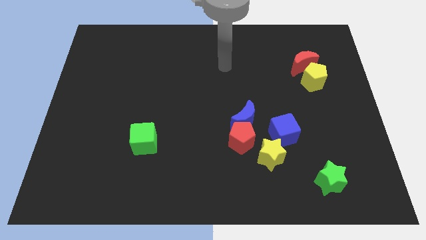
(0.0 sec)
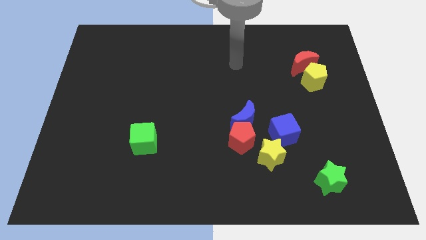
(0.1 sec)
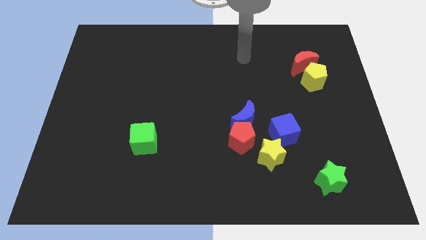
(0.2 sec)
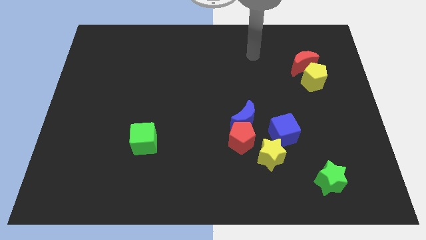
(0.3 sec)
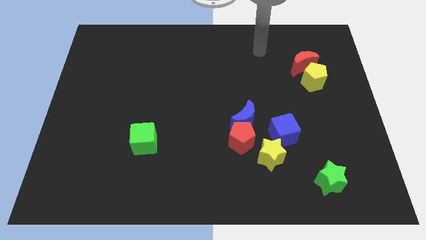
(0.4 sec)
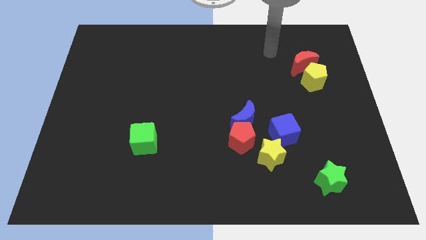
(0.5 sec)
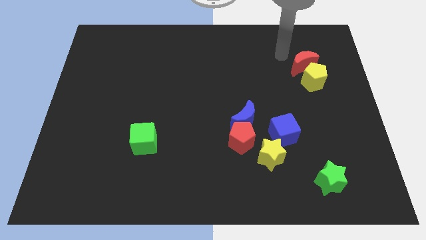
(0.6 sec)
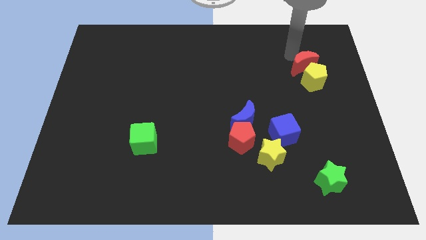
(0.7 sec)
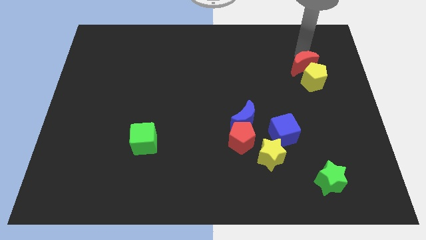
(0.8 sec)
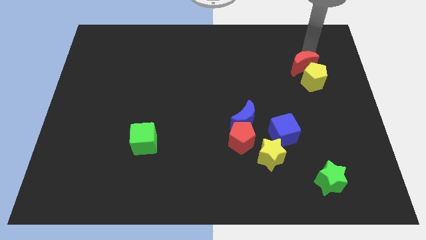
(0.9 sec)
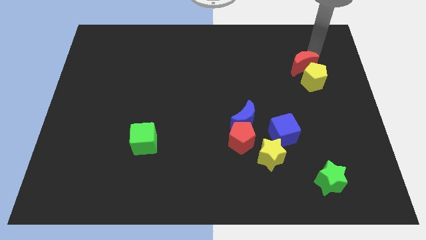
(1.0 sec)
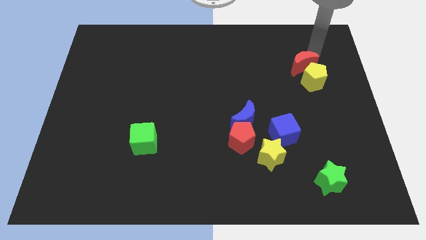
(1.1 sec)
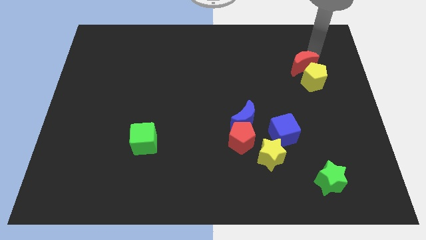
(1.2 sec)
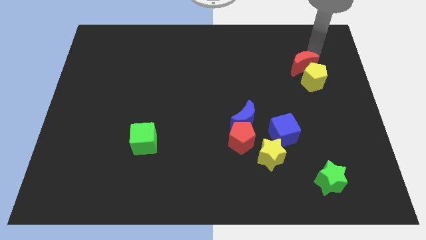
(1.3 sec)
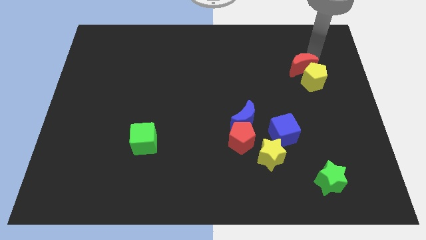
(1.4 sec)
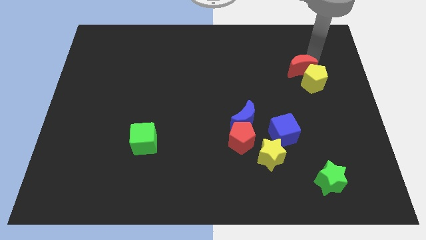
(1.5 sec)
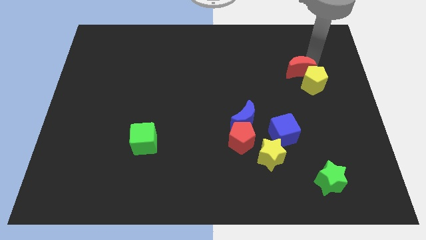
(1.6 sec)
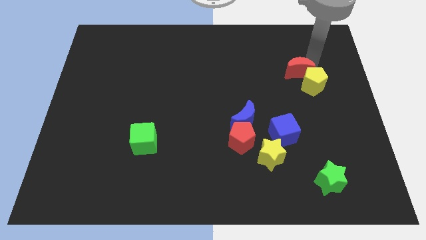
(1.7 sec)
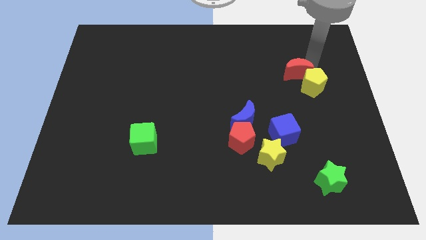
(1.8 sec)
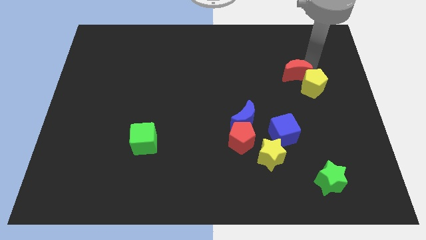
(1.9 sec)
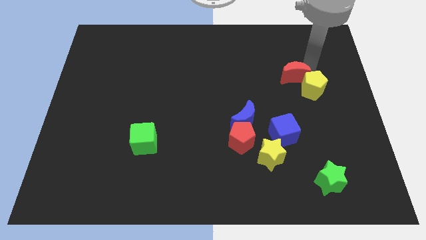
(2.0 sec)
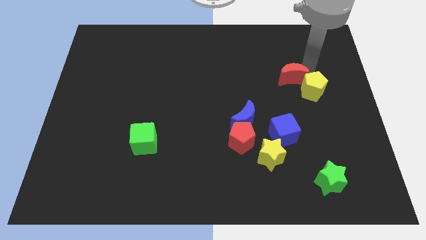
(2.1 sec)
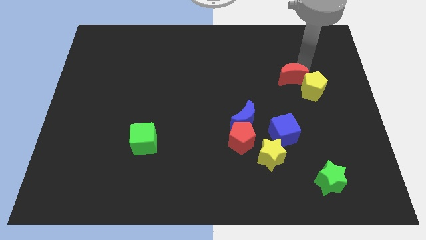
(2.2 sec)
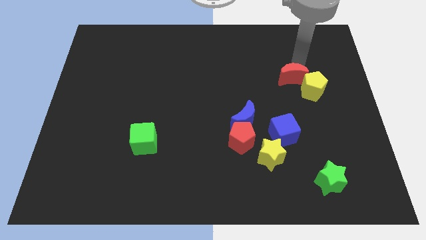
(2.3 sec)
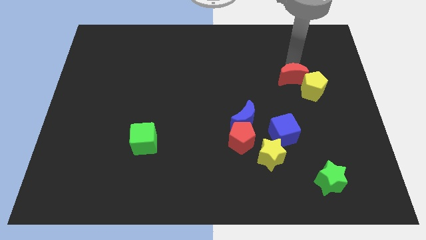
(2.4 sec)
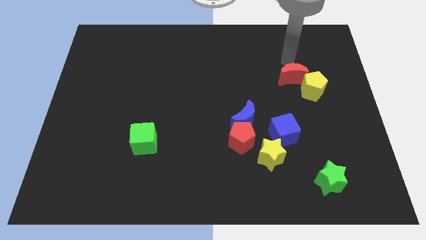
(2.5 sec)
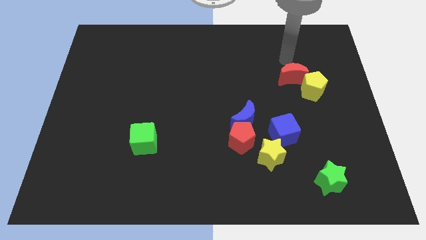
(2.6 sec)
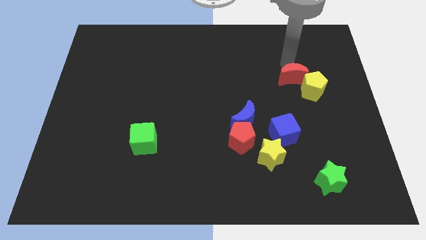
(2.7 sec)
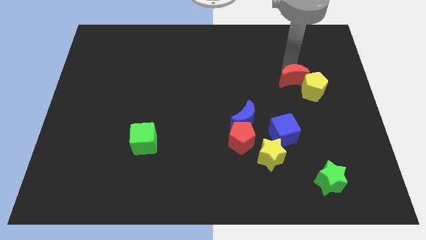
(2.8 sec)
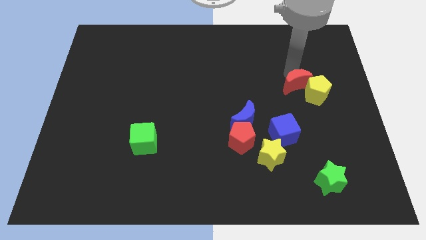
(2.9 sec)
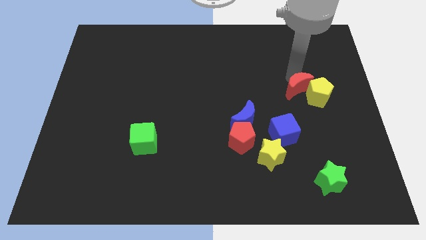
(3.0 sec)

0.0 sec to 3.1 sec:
slightly push the red moon down

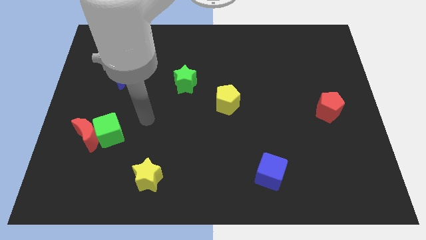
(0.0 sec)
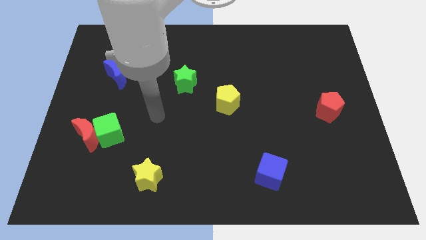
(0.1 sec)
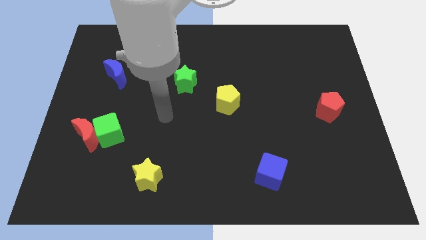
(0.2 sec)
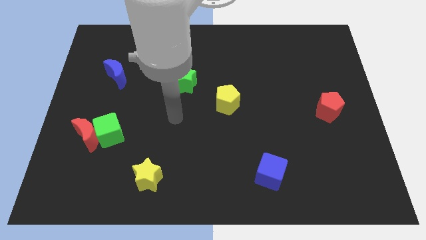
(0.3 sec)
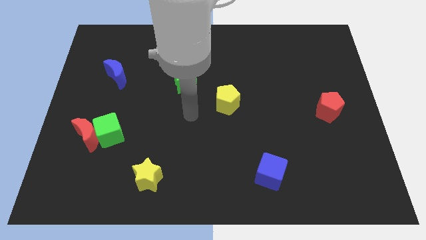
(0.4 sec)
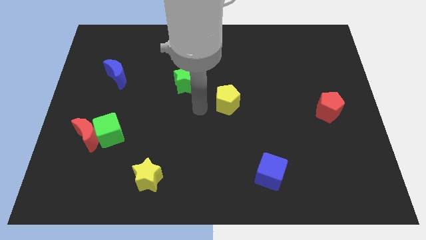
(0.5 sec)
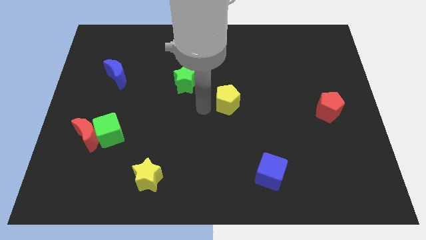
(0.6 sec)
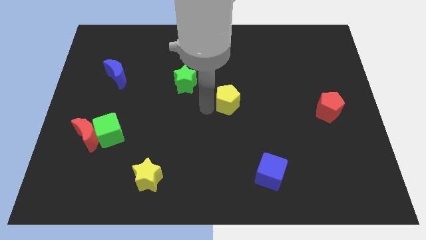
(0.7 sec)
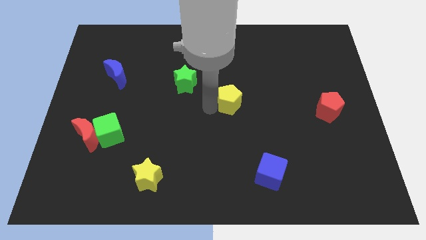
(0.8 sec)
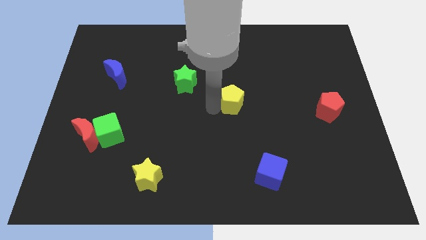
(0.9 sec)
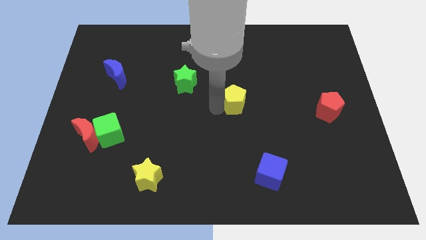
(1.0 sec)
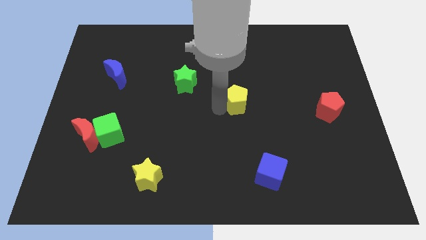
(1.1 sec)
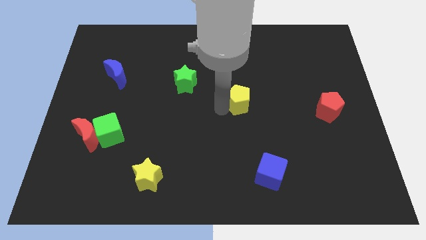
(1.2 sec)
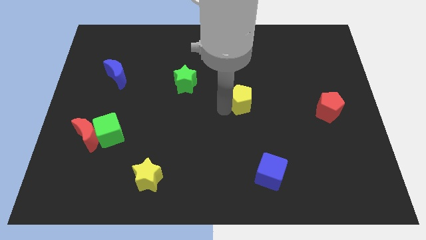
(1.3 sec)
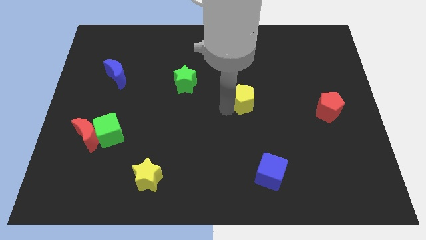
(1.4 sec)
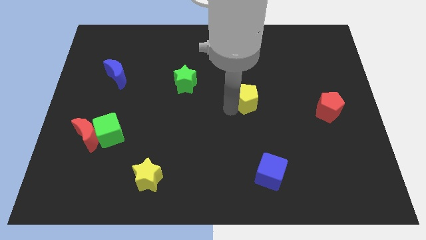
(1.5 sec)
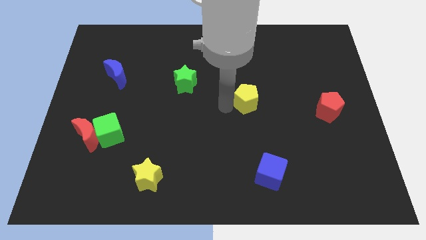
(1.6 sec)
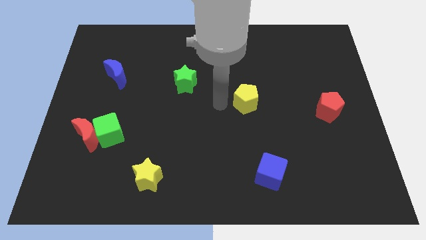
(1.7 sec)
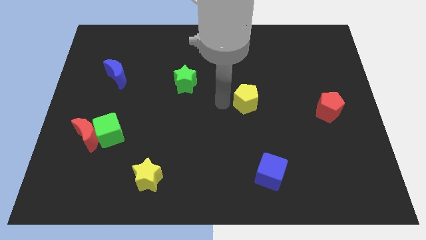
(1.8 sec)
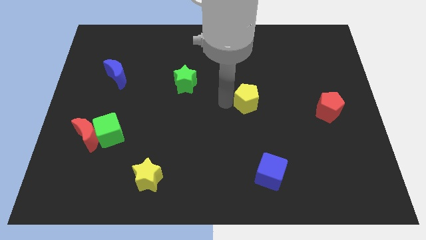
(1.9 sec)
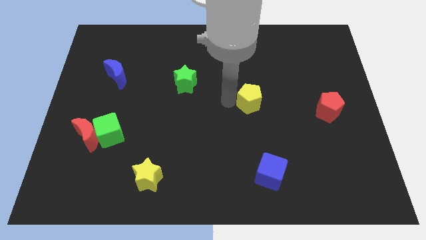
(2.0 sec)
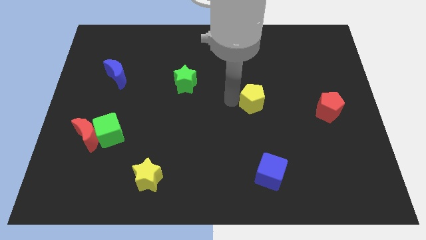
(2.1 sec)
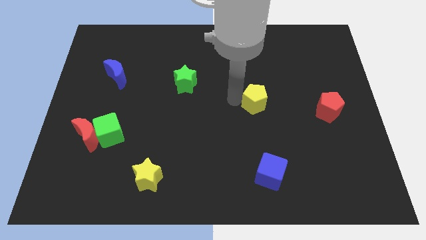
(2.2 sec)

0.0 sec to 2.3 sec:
push the yellow pentagon a bit right

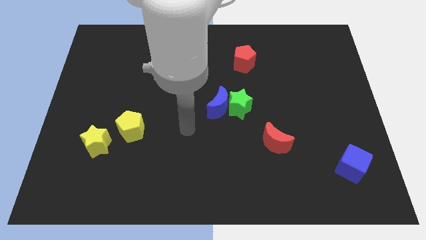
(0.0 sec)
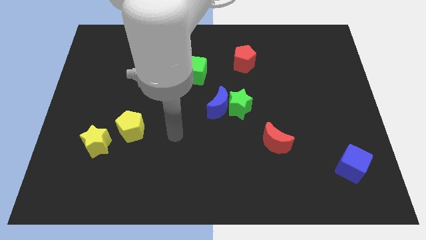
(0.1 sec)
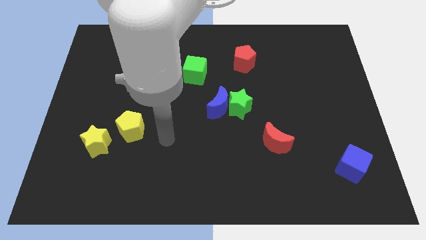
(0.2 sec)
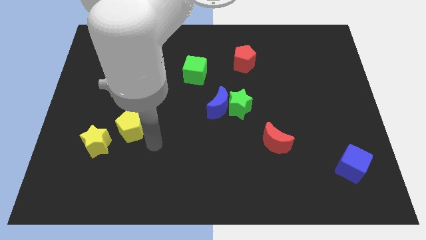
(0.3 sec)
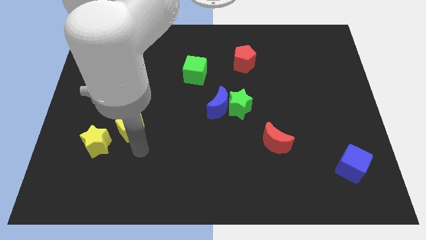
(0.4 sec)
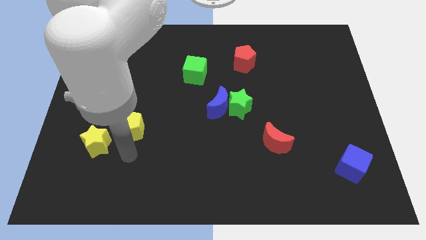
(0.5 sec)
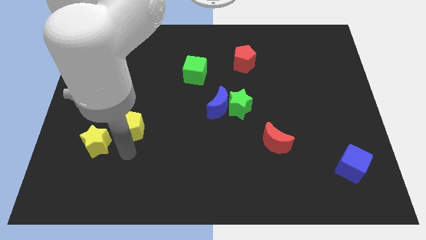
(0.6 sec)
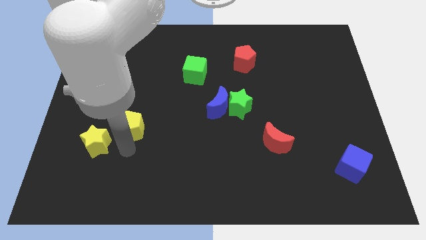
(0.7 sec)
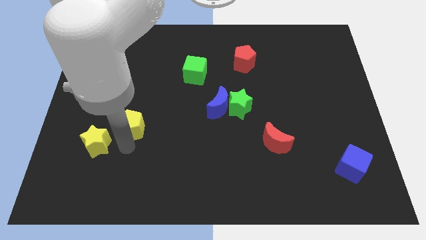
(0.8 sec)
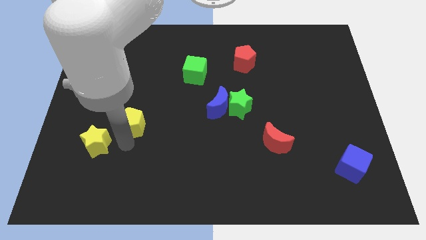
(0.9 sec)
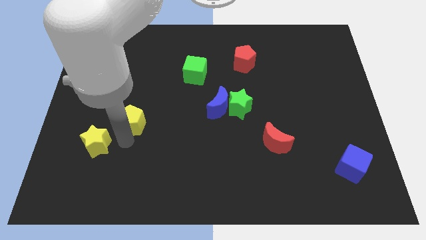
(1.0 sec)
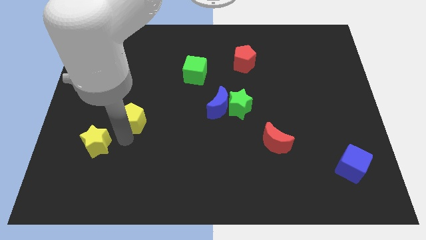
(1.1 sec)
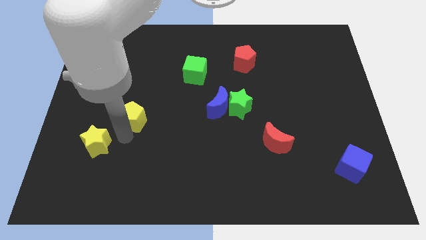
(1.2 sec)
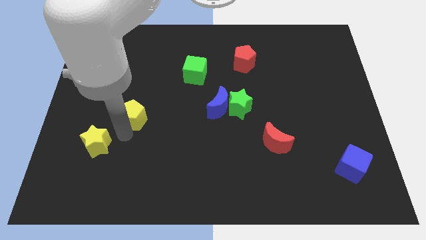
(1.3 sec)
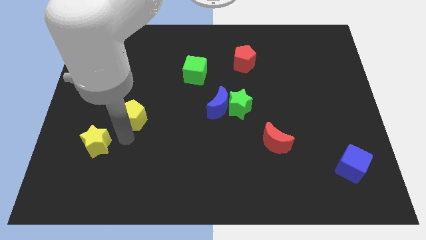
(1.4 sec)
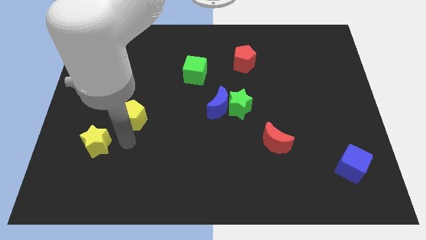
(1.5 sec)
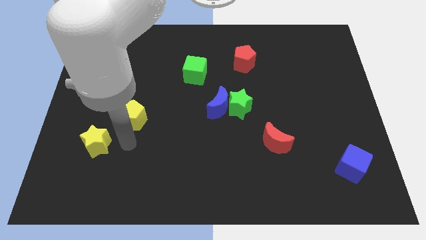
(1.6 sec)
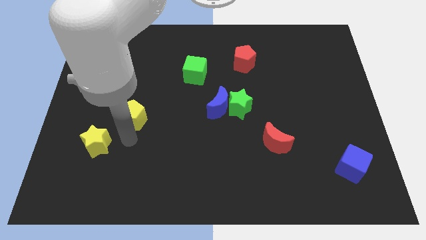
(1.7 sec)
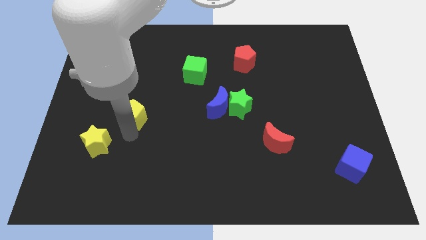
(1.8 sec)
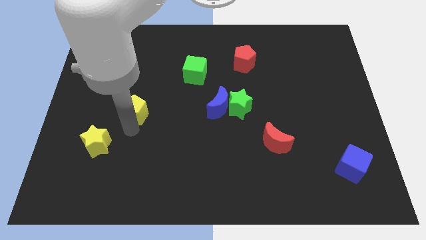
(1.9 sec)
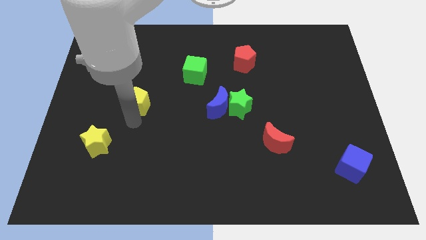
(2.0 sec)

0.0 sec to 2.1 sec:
slide the yellow pentagon slightly up

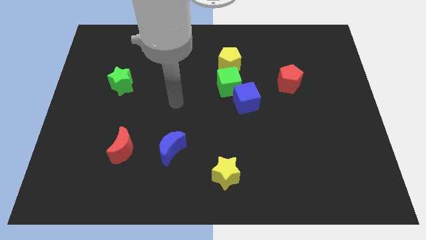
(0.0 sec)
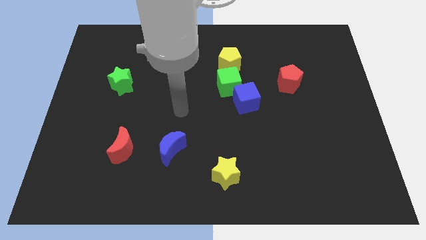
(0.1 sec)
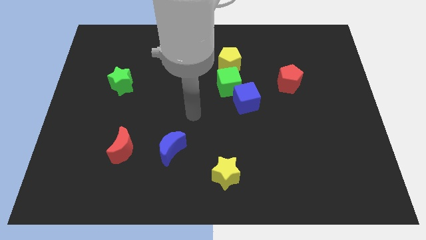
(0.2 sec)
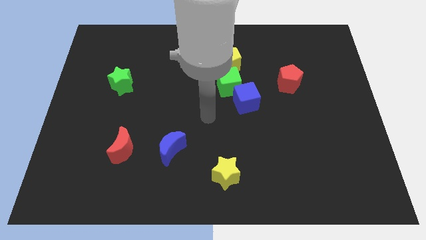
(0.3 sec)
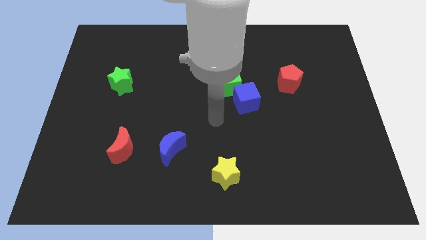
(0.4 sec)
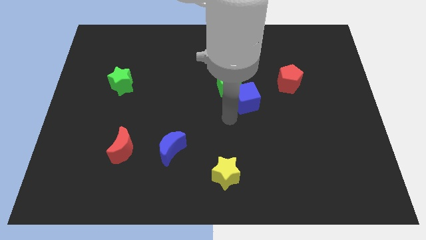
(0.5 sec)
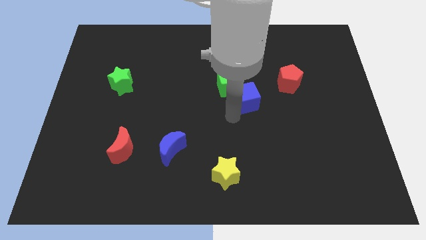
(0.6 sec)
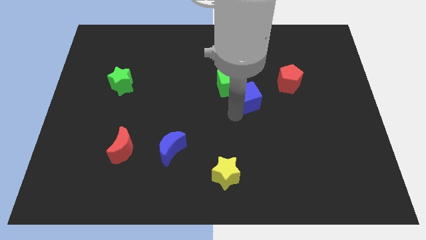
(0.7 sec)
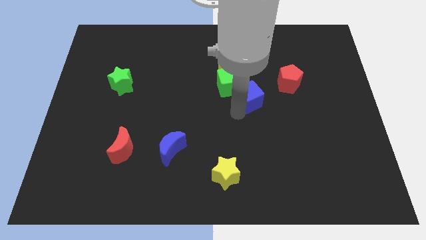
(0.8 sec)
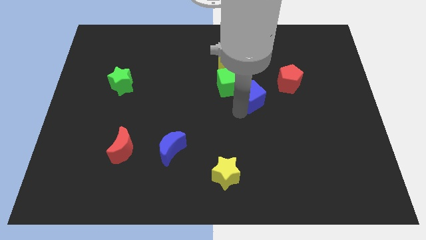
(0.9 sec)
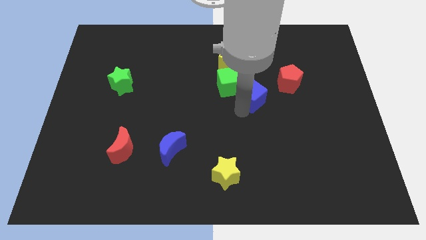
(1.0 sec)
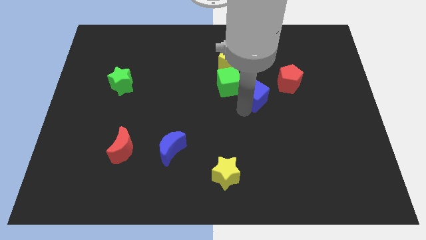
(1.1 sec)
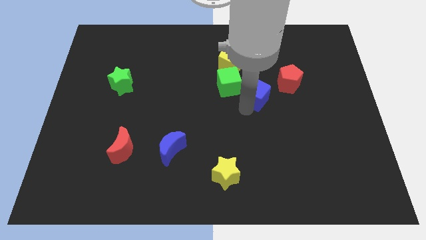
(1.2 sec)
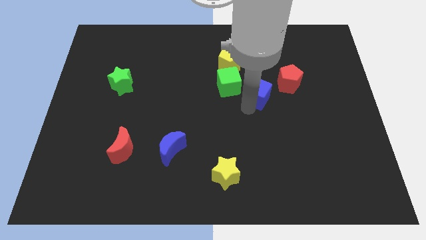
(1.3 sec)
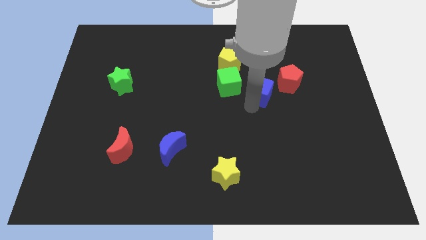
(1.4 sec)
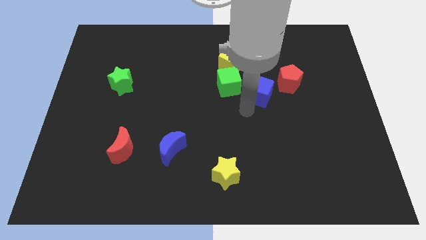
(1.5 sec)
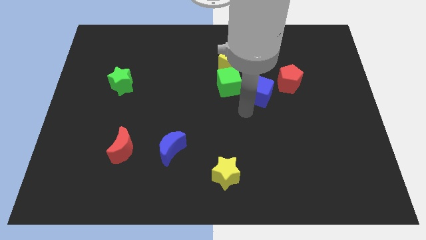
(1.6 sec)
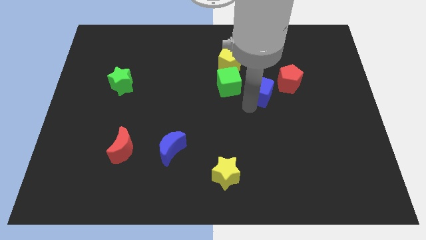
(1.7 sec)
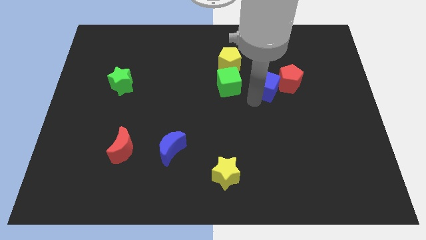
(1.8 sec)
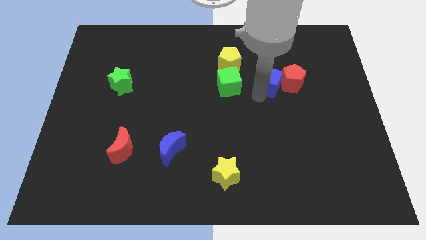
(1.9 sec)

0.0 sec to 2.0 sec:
move the blue cube a little upwards and to the right diagonally
